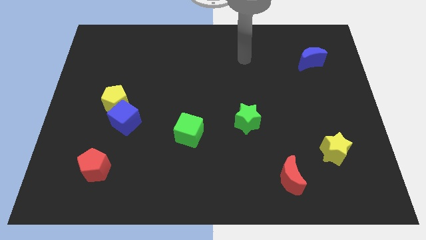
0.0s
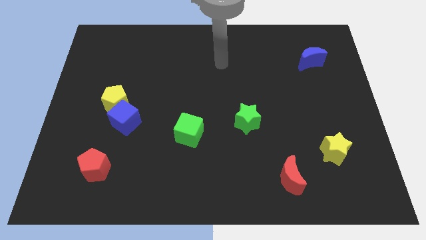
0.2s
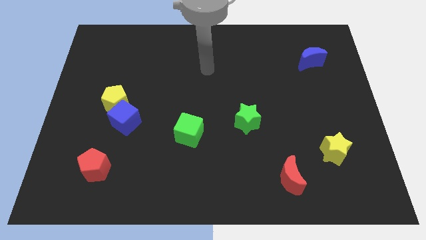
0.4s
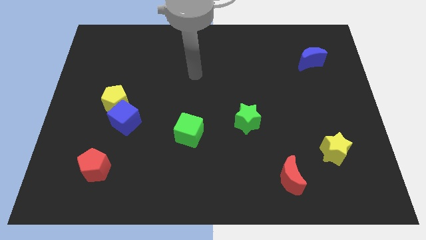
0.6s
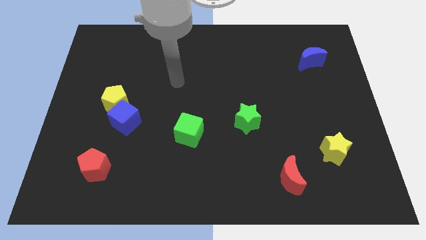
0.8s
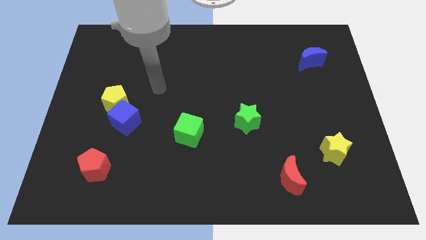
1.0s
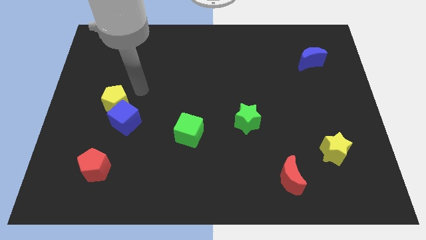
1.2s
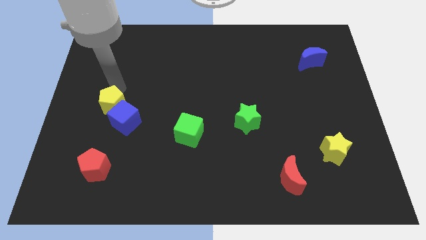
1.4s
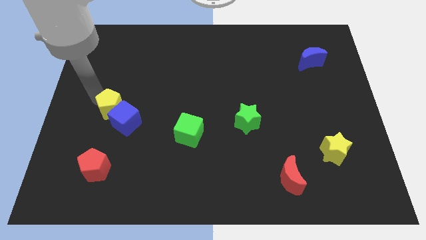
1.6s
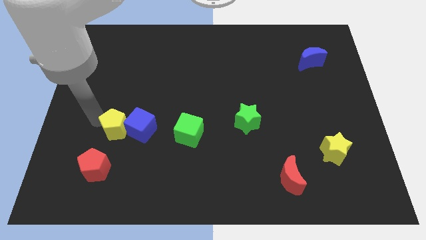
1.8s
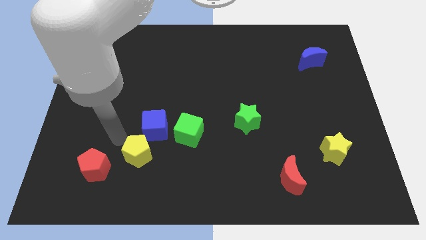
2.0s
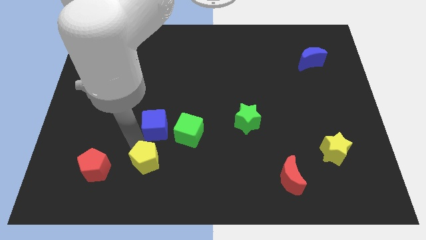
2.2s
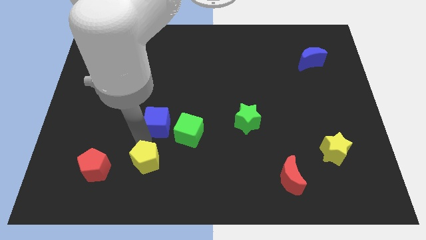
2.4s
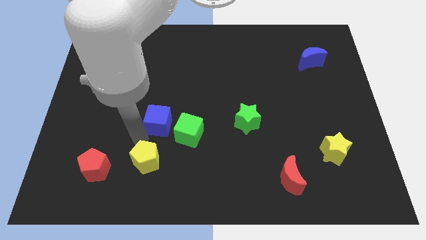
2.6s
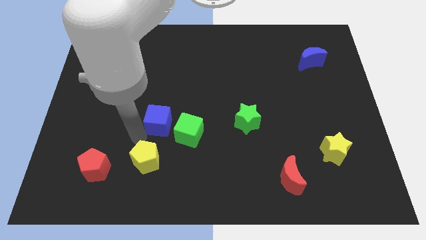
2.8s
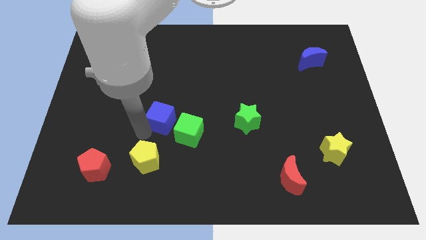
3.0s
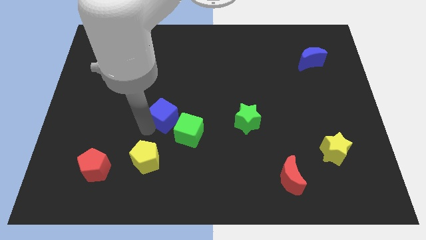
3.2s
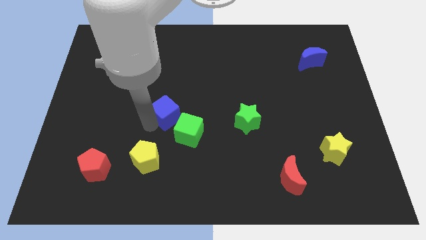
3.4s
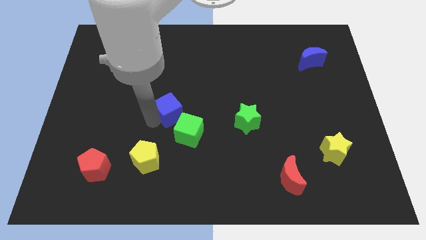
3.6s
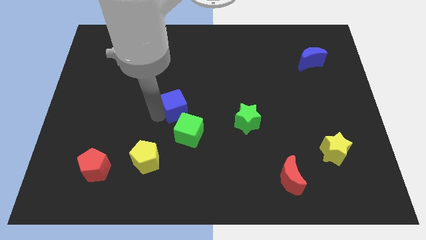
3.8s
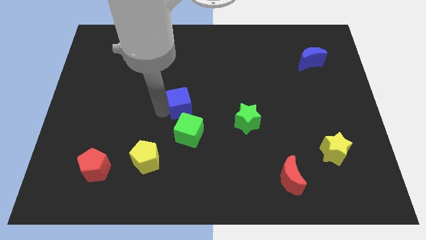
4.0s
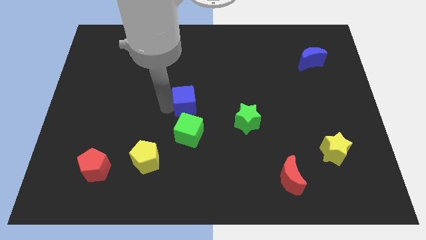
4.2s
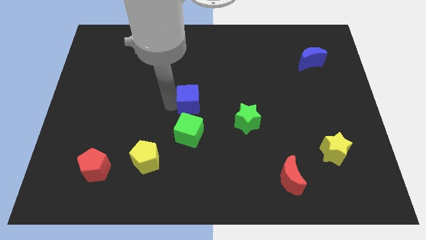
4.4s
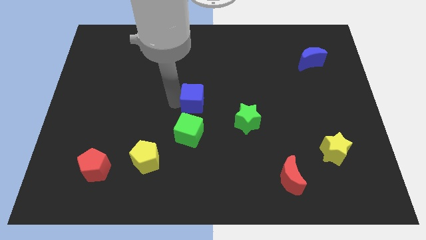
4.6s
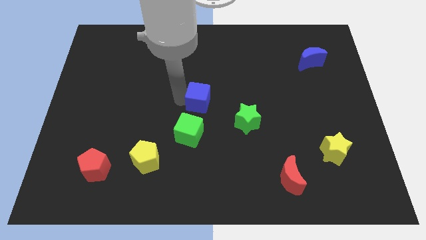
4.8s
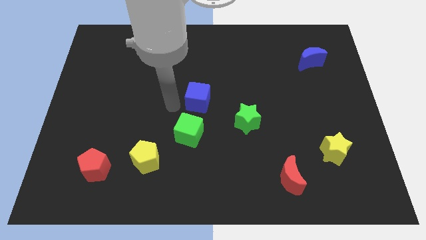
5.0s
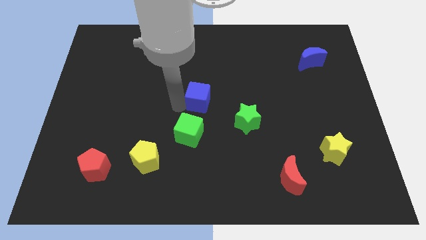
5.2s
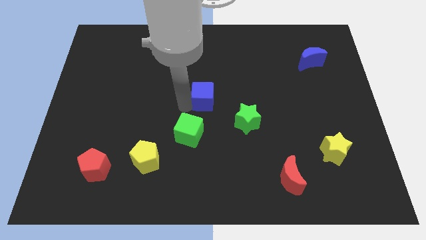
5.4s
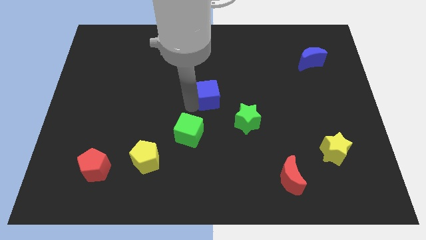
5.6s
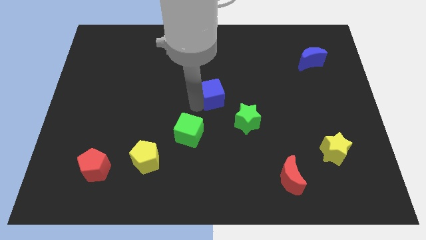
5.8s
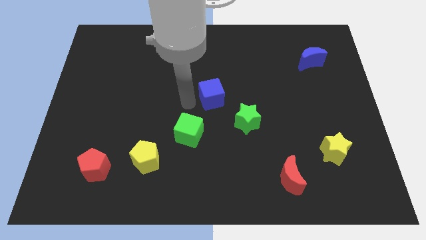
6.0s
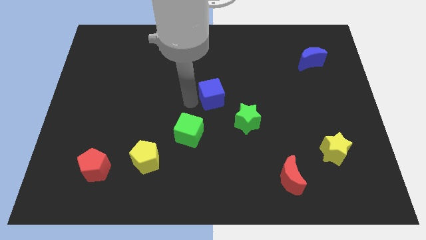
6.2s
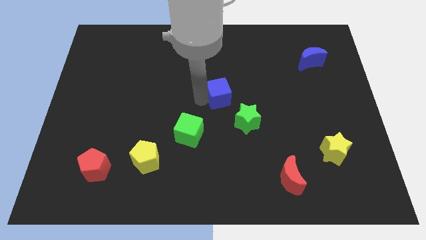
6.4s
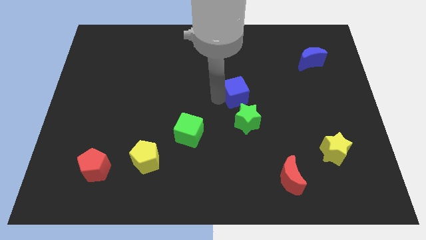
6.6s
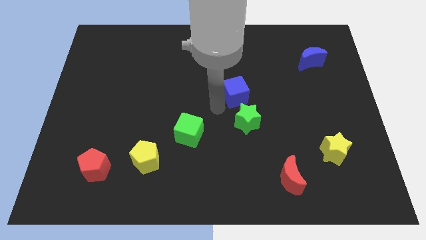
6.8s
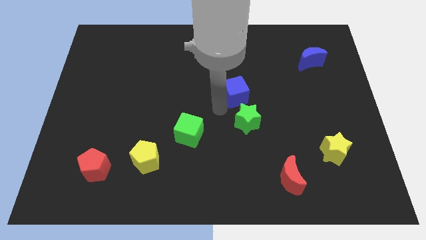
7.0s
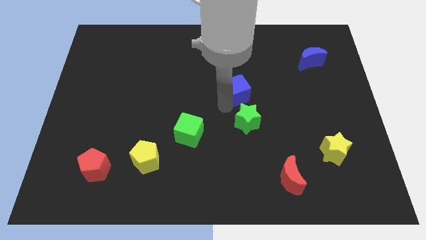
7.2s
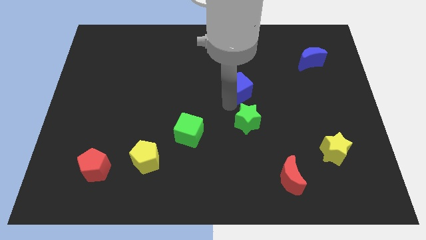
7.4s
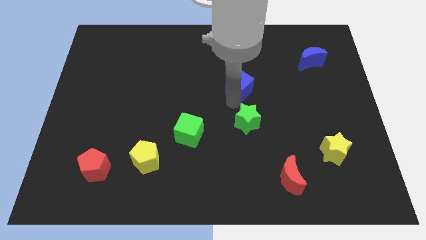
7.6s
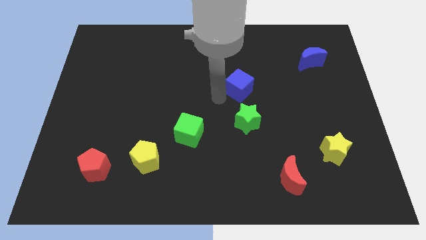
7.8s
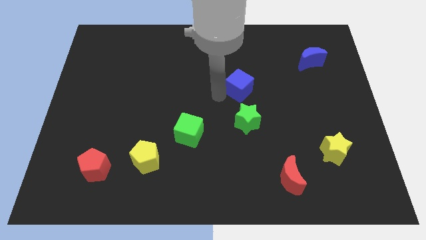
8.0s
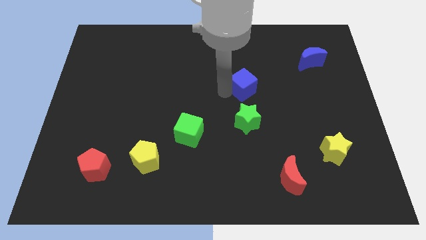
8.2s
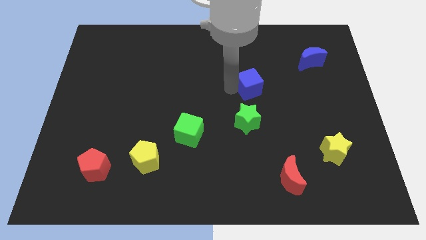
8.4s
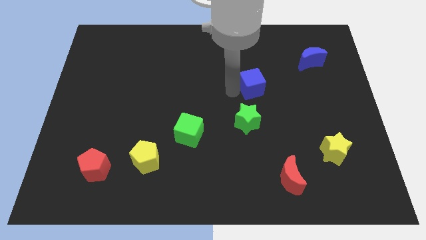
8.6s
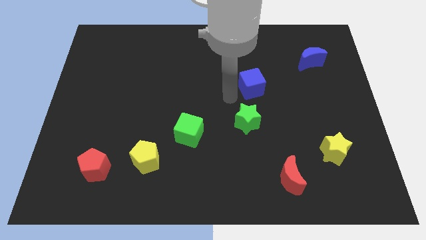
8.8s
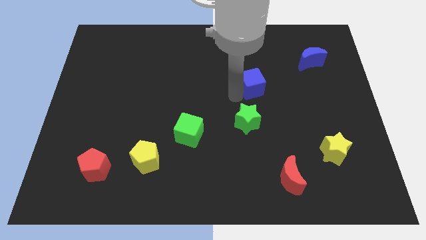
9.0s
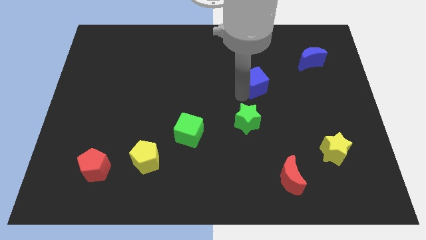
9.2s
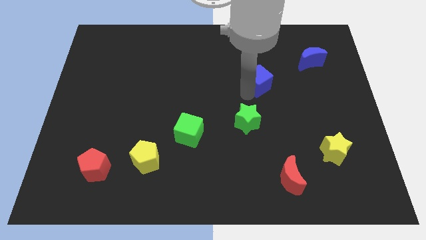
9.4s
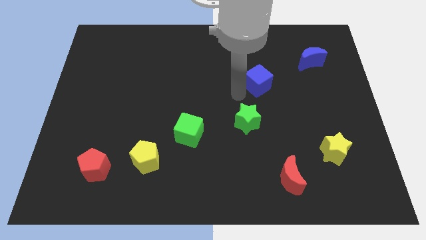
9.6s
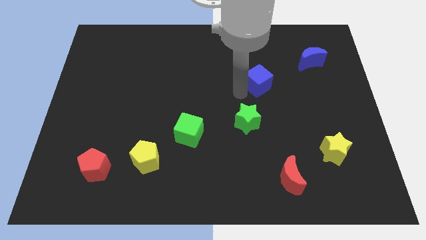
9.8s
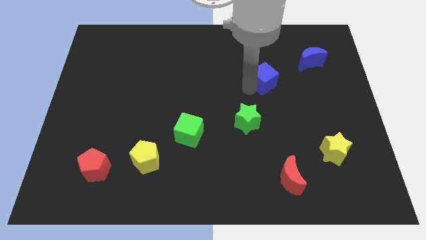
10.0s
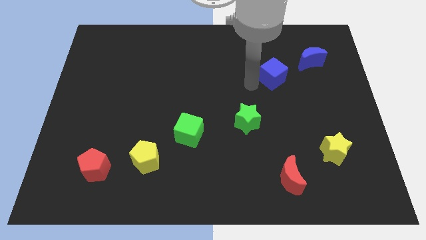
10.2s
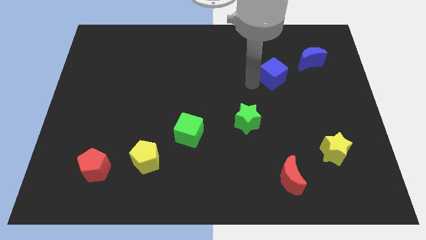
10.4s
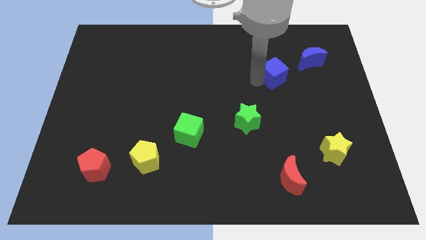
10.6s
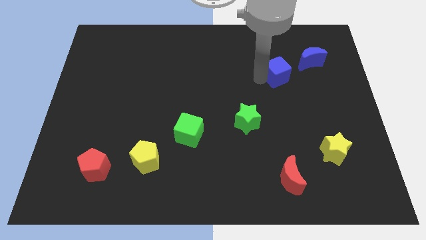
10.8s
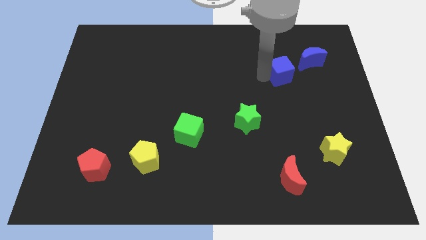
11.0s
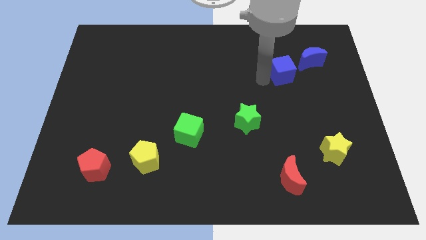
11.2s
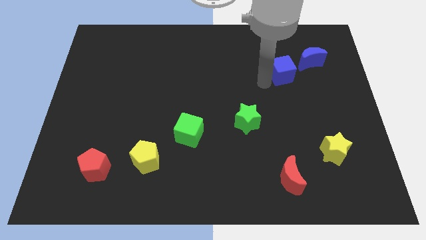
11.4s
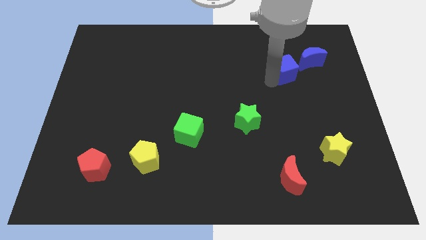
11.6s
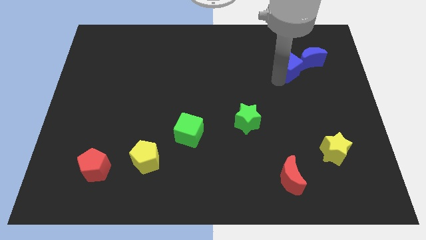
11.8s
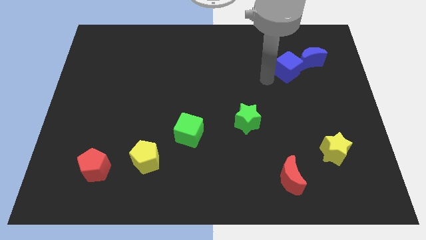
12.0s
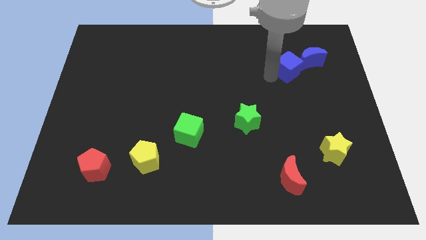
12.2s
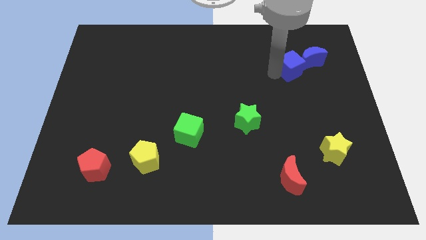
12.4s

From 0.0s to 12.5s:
move the blue cube close to the blue moon

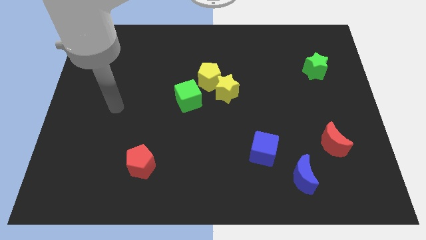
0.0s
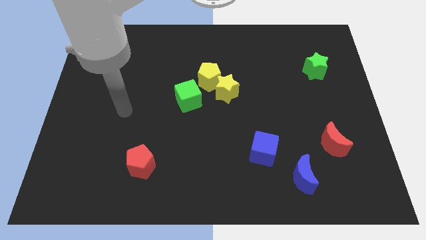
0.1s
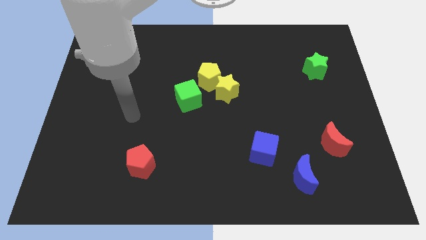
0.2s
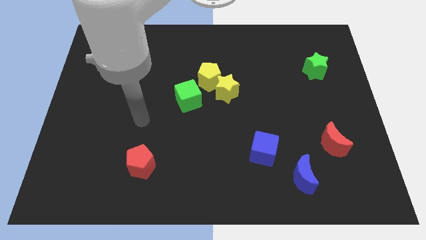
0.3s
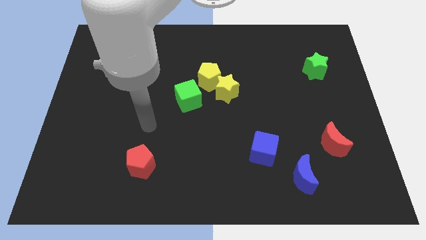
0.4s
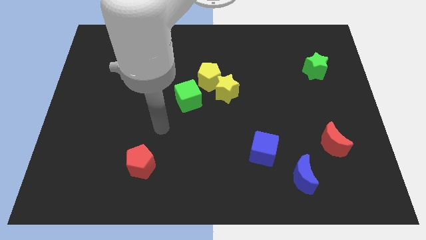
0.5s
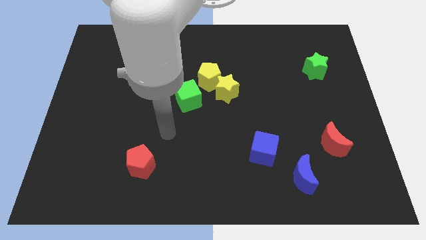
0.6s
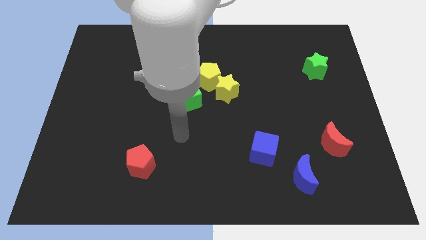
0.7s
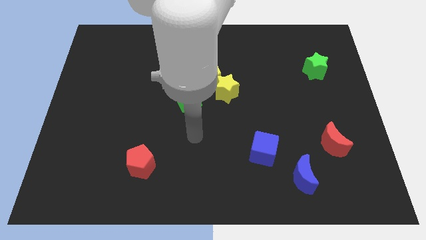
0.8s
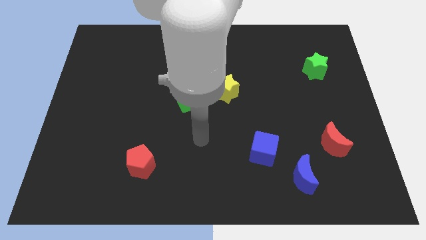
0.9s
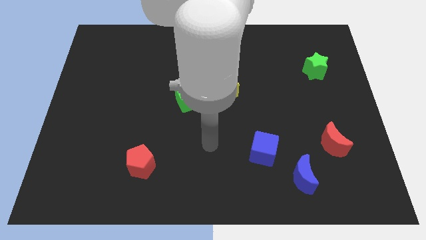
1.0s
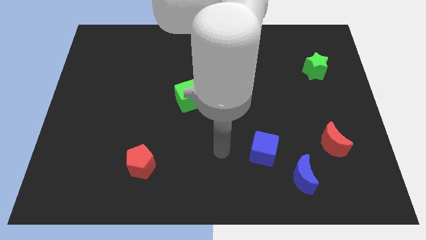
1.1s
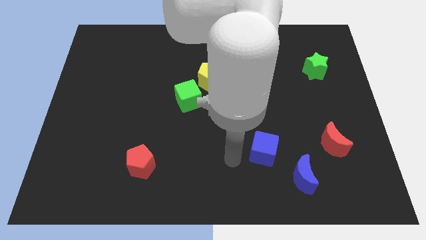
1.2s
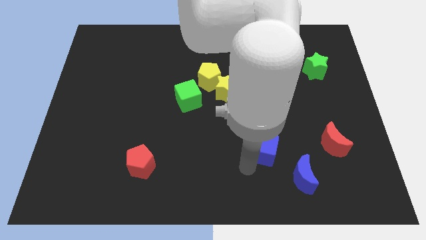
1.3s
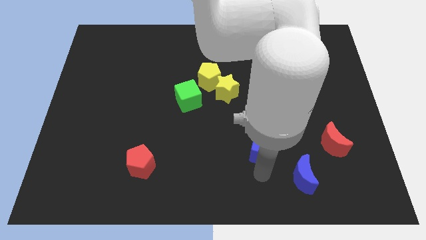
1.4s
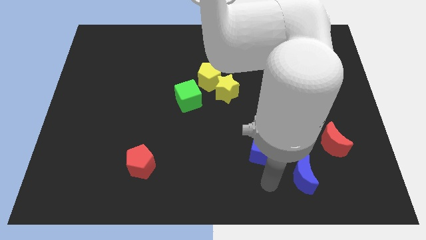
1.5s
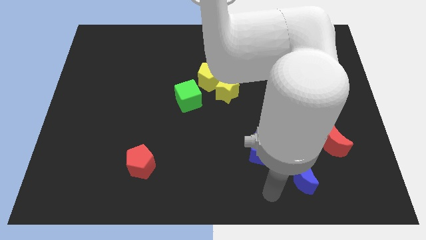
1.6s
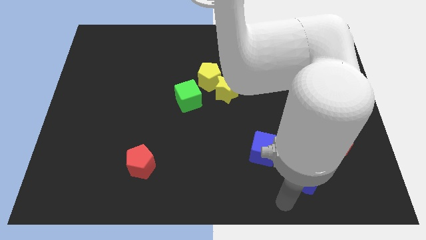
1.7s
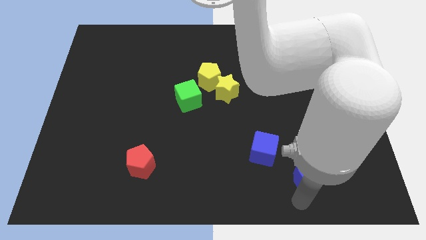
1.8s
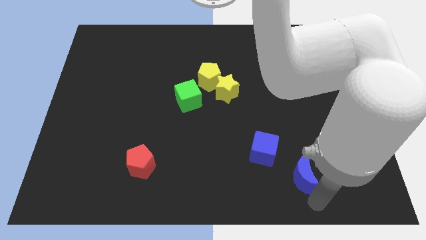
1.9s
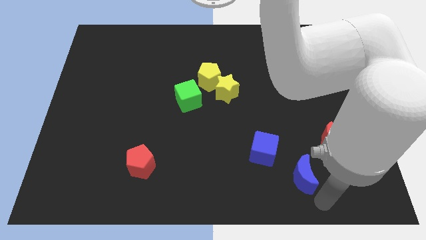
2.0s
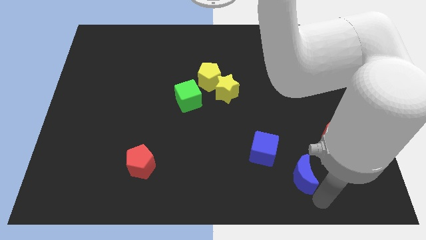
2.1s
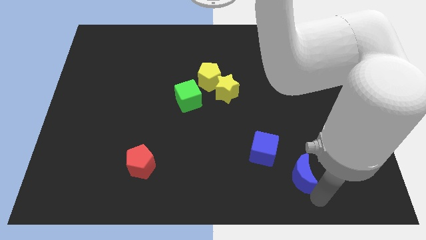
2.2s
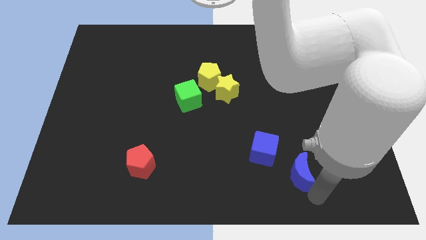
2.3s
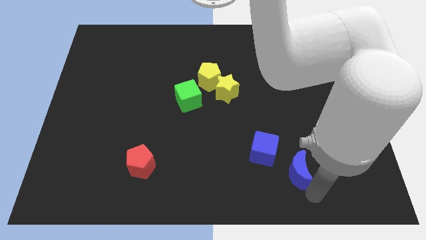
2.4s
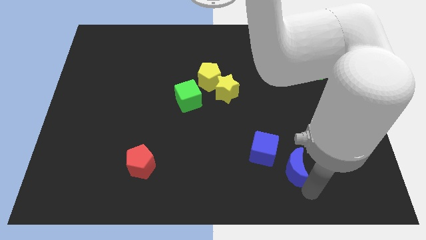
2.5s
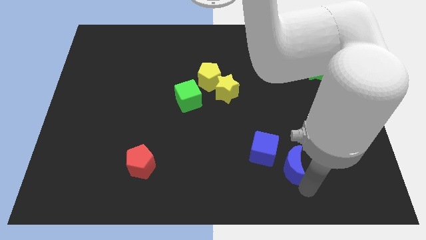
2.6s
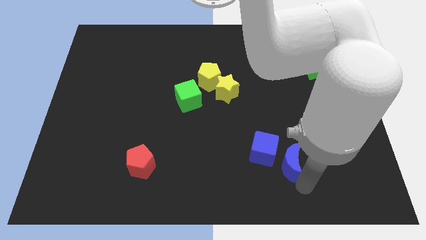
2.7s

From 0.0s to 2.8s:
move the blue moon towards the blue cube
